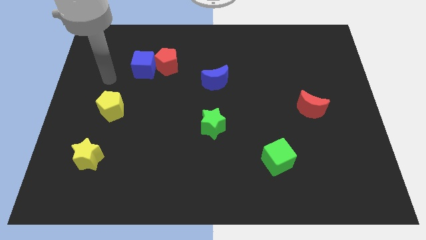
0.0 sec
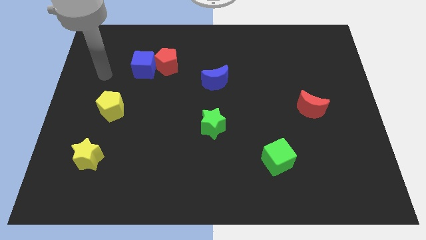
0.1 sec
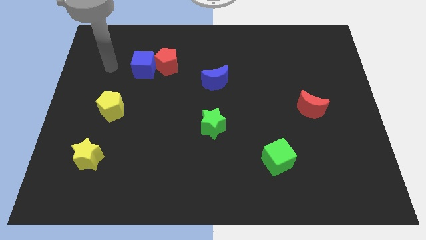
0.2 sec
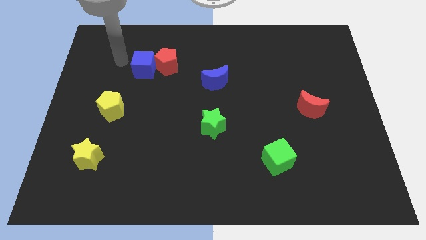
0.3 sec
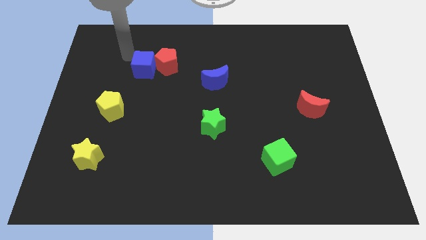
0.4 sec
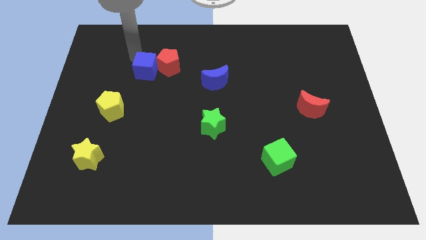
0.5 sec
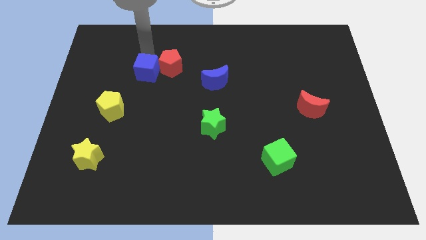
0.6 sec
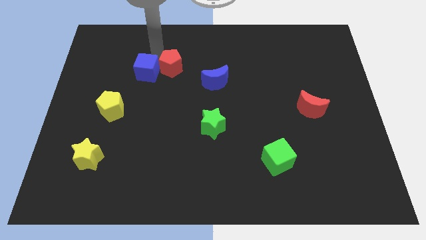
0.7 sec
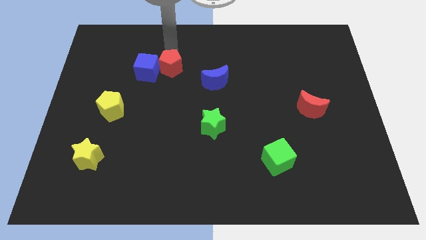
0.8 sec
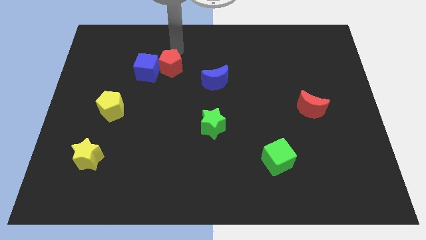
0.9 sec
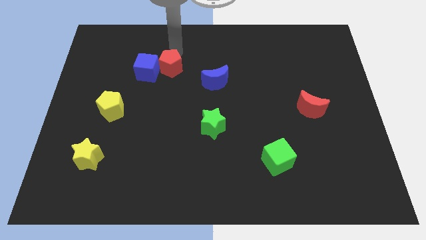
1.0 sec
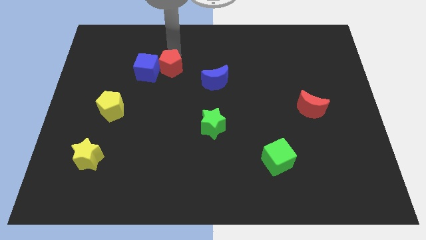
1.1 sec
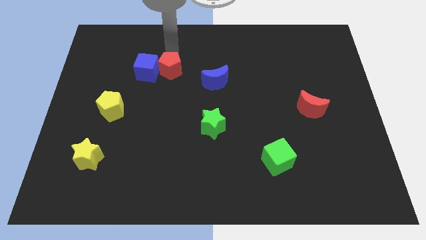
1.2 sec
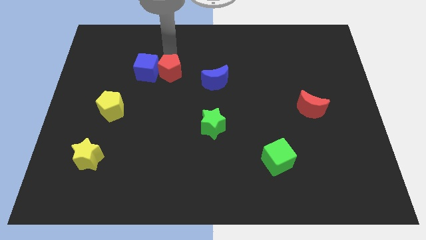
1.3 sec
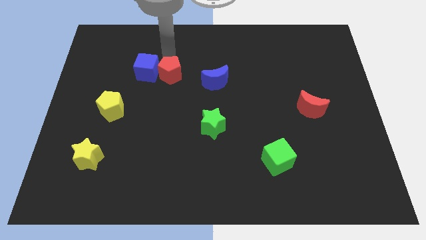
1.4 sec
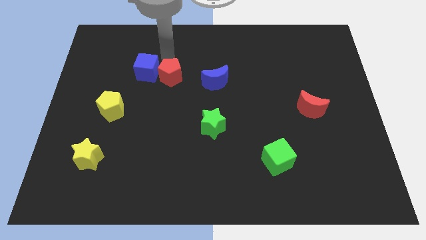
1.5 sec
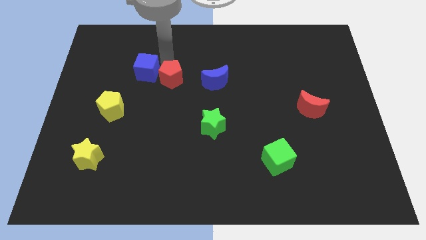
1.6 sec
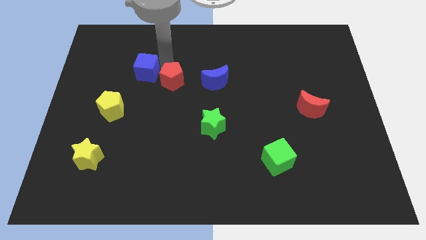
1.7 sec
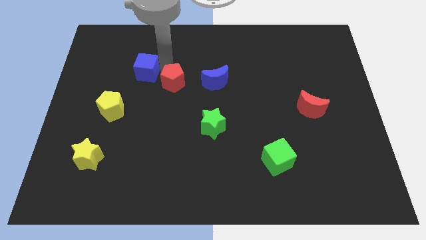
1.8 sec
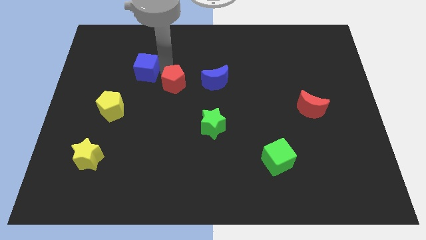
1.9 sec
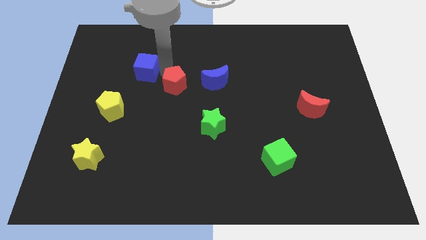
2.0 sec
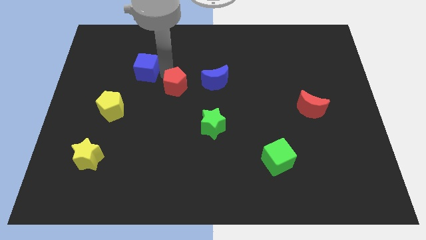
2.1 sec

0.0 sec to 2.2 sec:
move the red pentagon down slightly

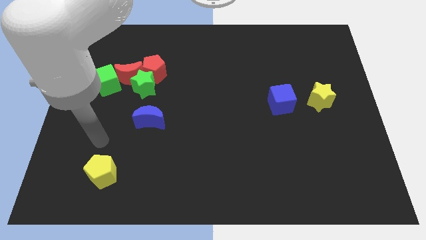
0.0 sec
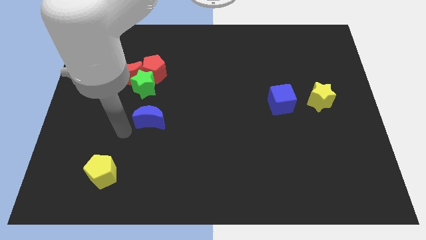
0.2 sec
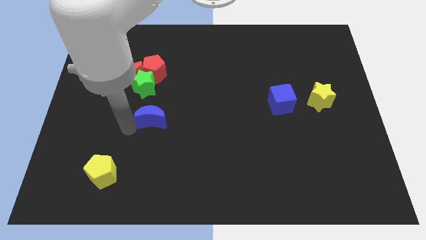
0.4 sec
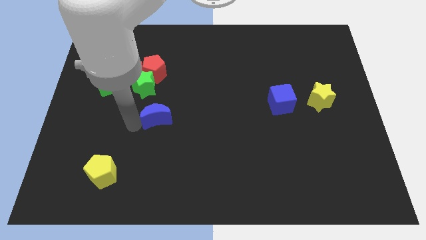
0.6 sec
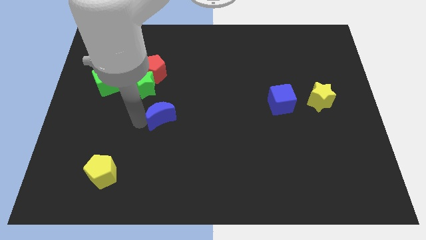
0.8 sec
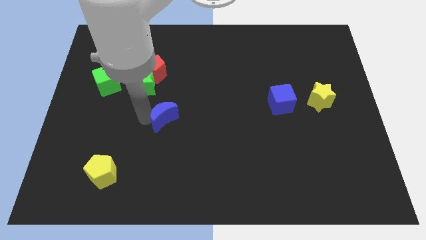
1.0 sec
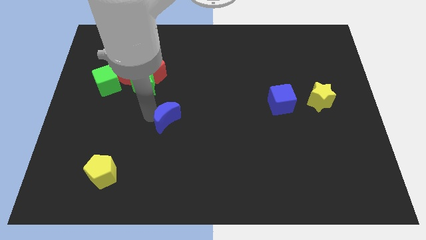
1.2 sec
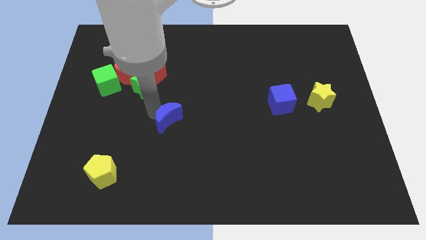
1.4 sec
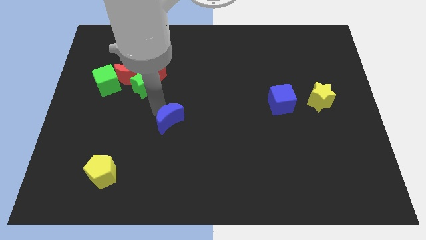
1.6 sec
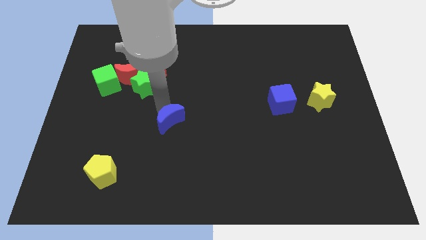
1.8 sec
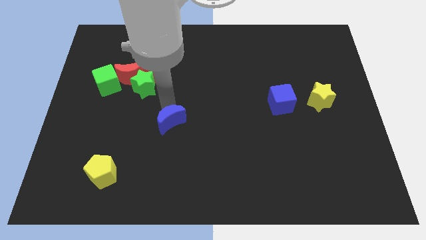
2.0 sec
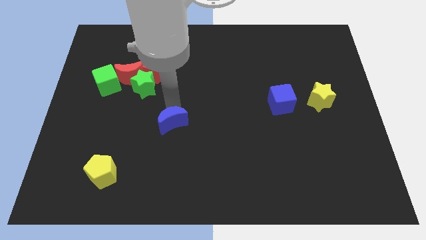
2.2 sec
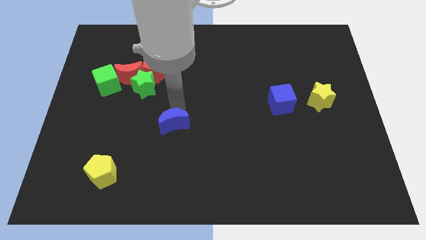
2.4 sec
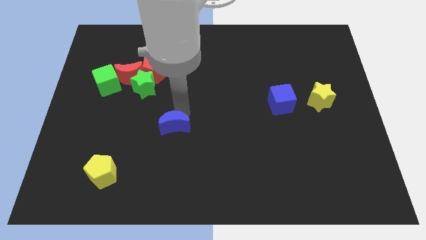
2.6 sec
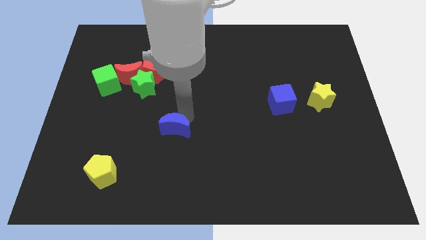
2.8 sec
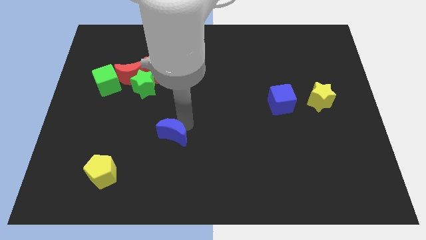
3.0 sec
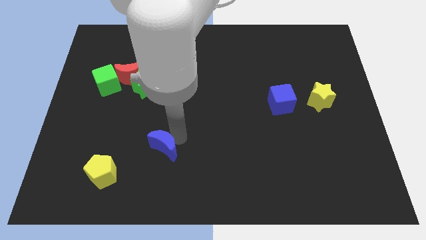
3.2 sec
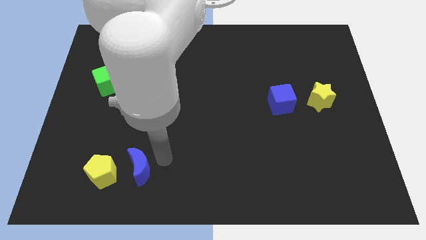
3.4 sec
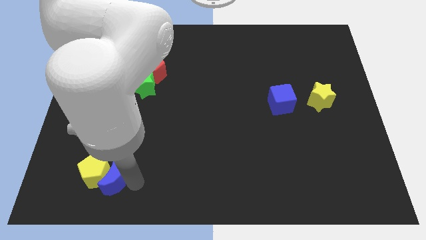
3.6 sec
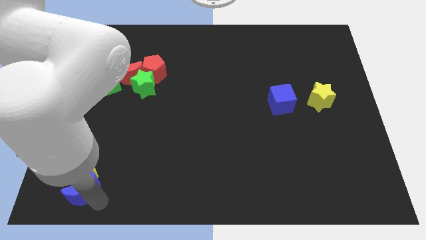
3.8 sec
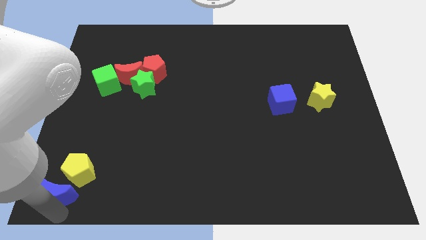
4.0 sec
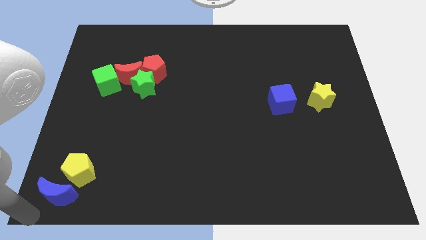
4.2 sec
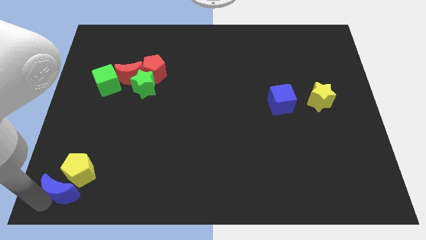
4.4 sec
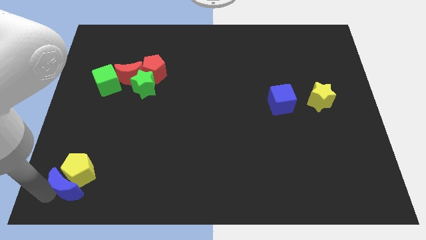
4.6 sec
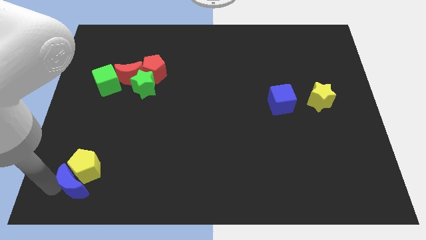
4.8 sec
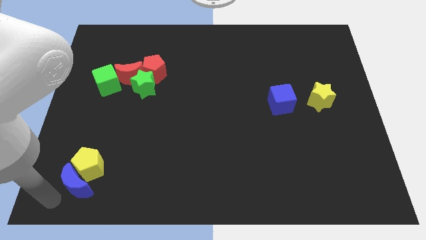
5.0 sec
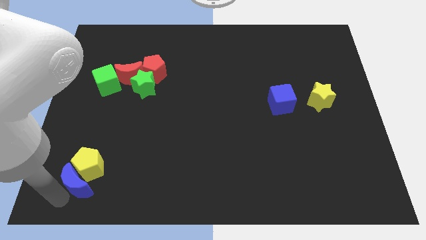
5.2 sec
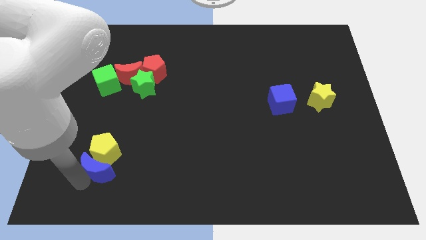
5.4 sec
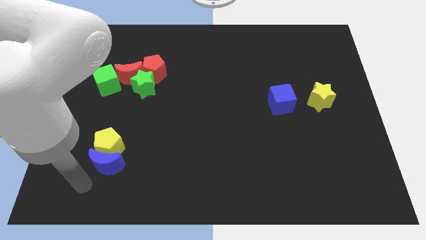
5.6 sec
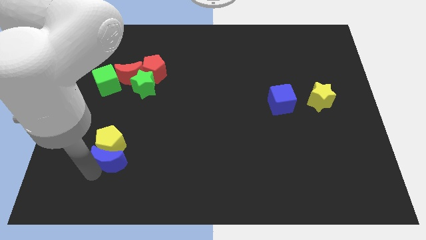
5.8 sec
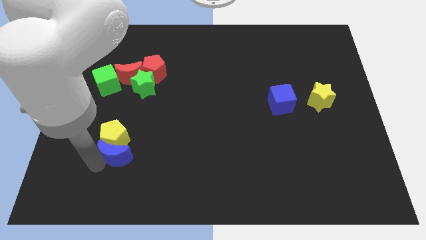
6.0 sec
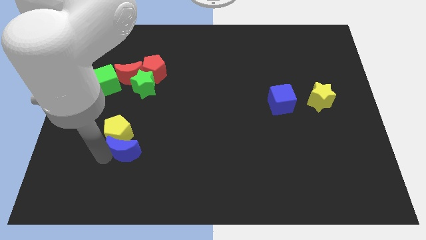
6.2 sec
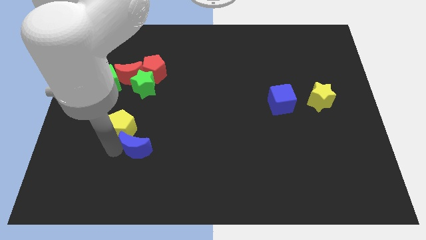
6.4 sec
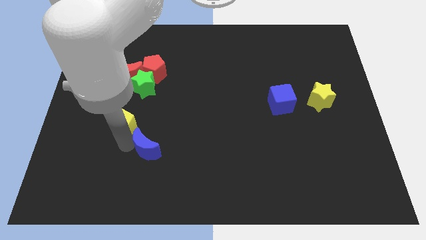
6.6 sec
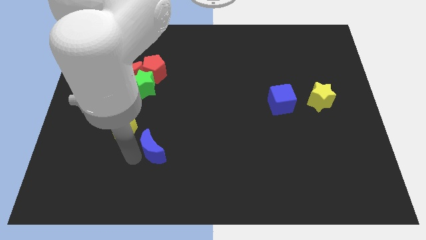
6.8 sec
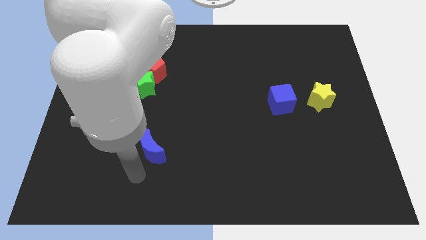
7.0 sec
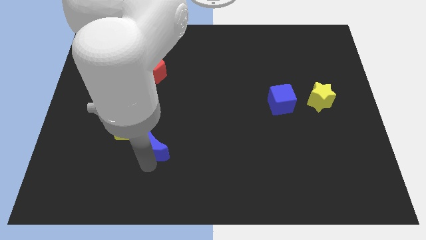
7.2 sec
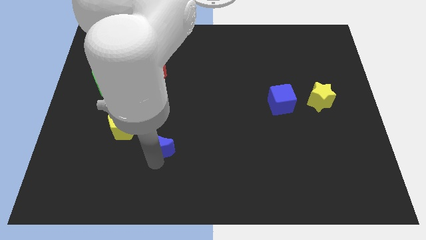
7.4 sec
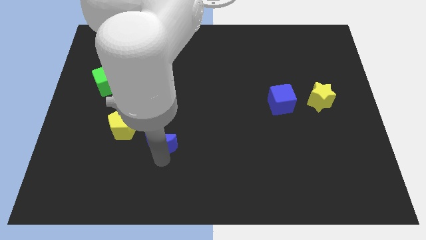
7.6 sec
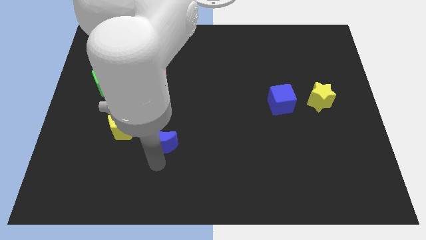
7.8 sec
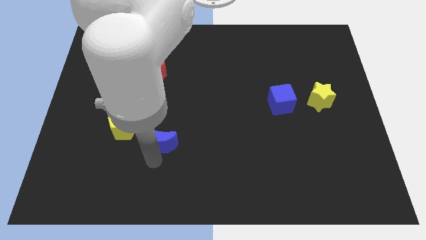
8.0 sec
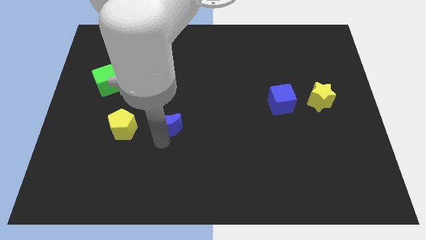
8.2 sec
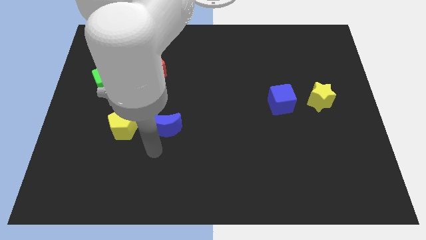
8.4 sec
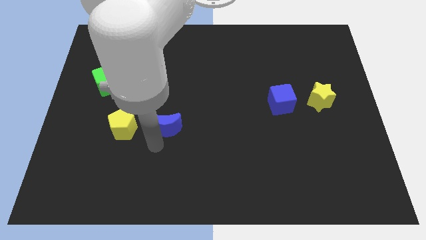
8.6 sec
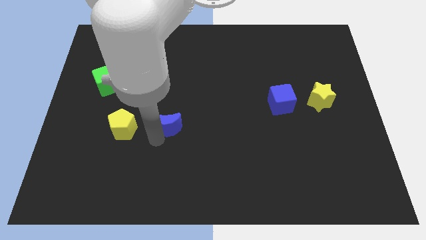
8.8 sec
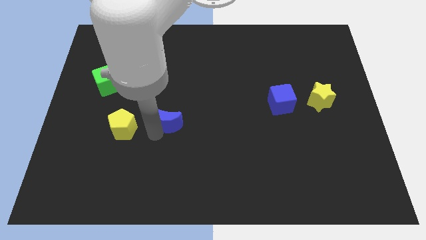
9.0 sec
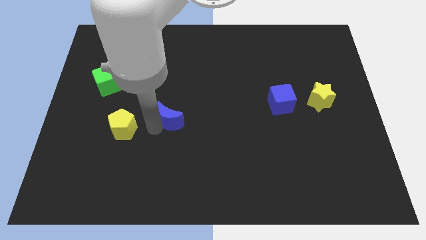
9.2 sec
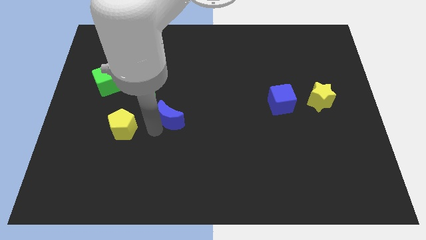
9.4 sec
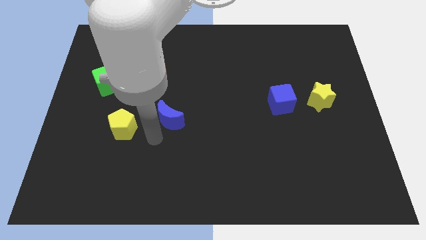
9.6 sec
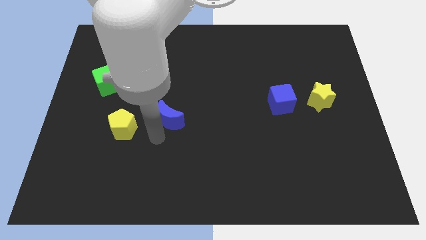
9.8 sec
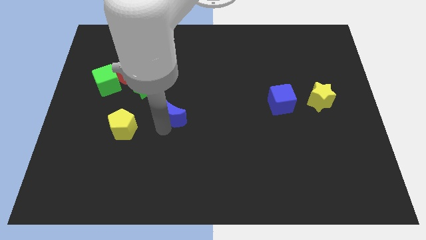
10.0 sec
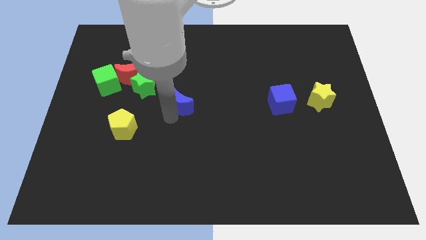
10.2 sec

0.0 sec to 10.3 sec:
move the blue moon slightly up and right diagonally

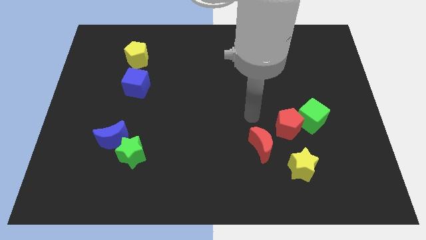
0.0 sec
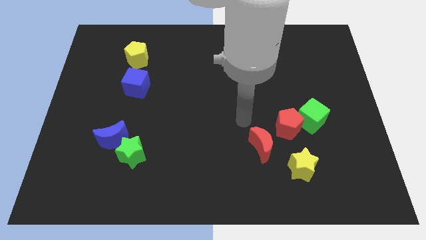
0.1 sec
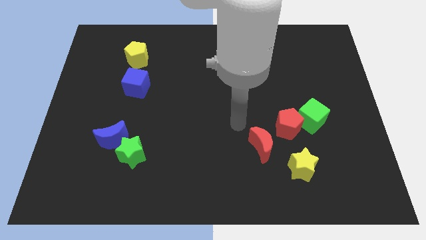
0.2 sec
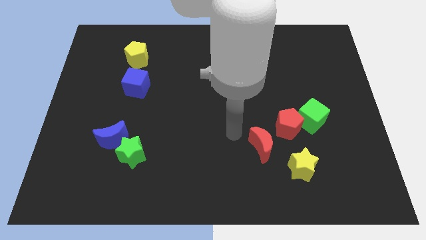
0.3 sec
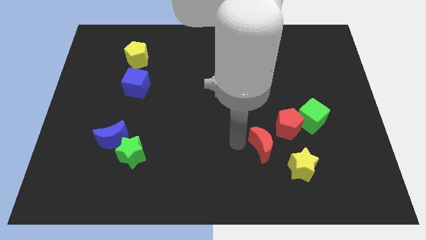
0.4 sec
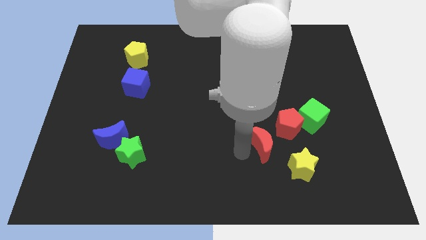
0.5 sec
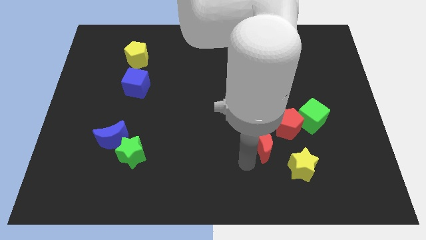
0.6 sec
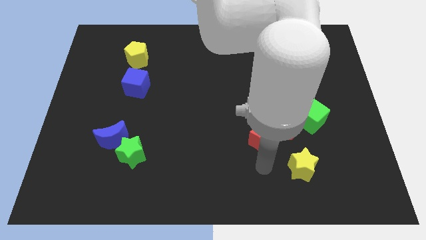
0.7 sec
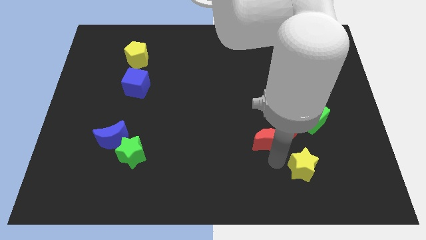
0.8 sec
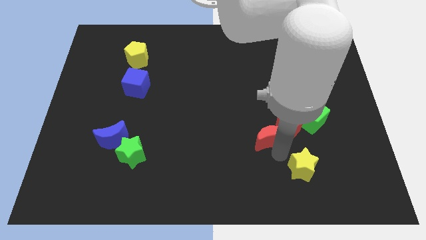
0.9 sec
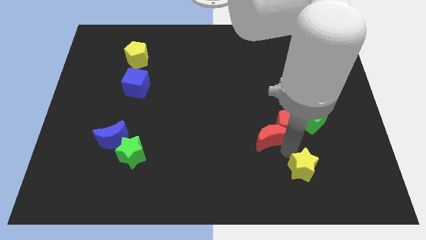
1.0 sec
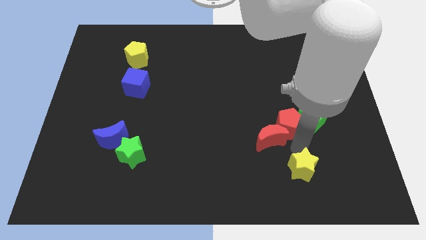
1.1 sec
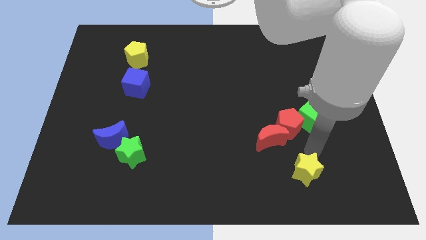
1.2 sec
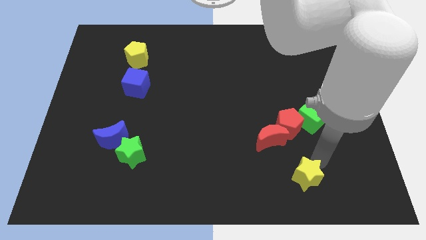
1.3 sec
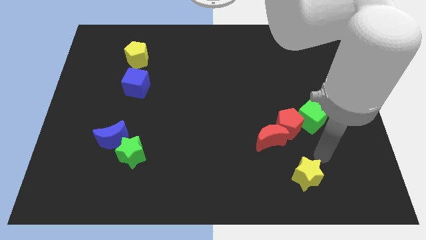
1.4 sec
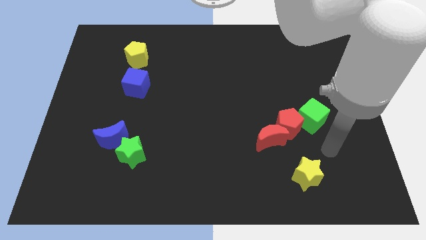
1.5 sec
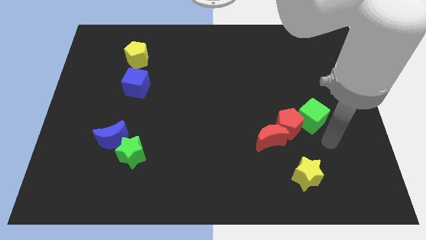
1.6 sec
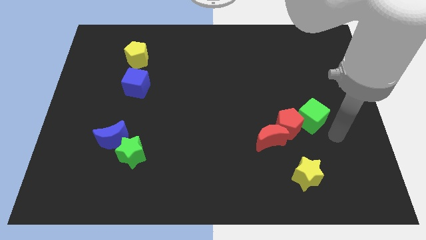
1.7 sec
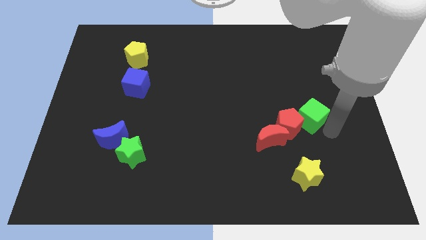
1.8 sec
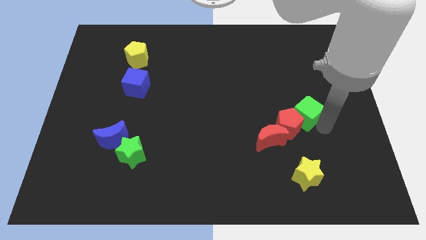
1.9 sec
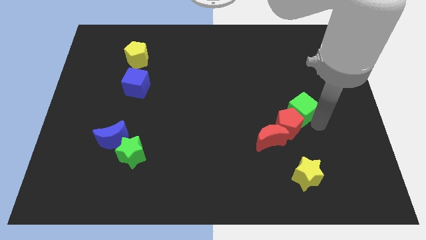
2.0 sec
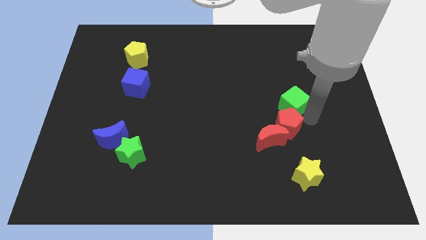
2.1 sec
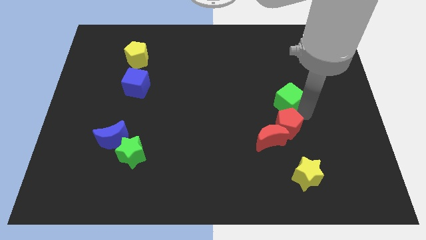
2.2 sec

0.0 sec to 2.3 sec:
slightly move the green cube upwards and then to the left
